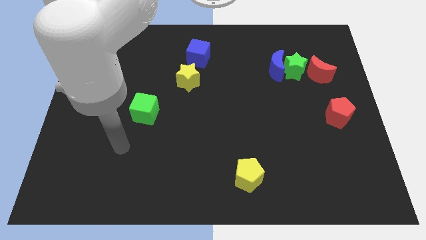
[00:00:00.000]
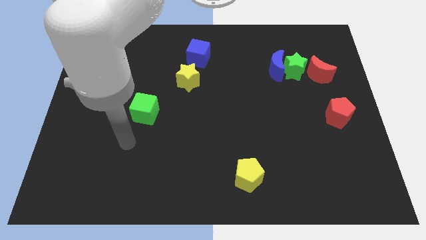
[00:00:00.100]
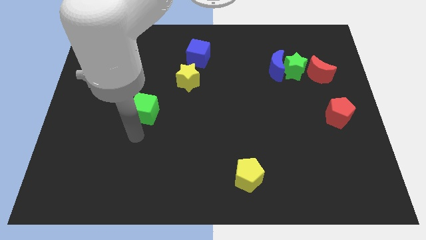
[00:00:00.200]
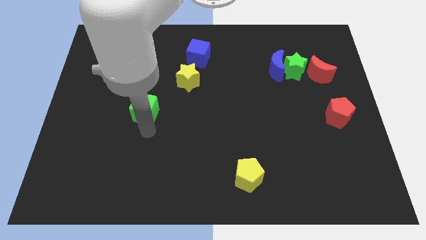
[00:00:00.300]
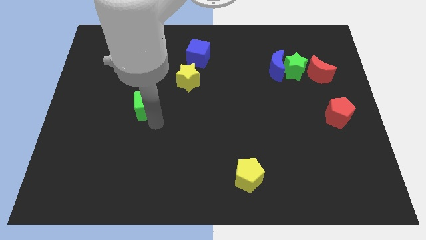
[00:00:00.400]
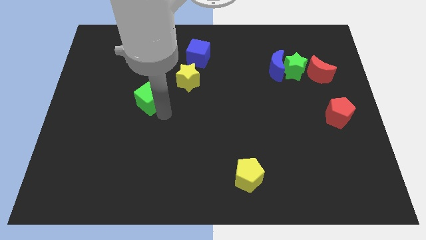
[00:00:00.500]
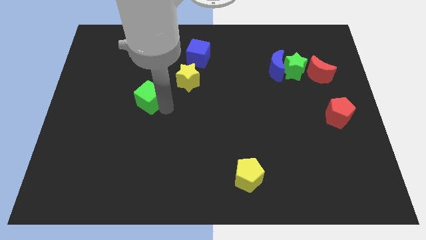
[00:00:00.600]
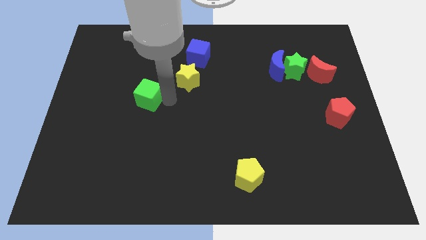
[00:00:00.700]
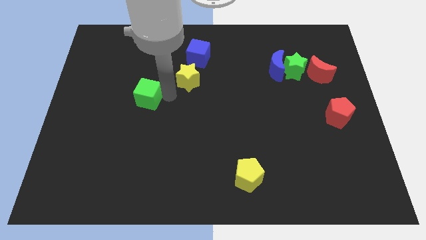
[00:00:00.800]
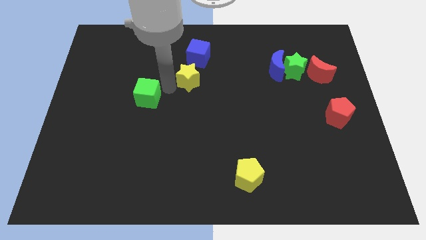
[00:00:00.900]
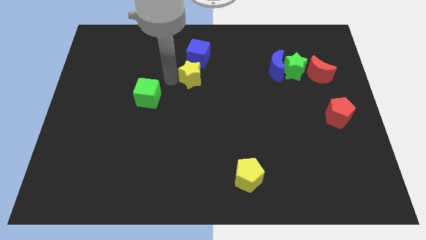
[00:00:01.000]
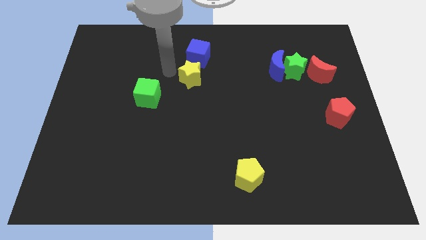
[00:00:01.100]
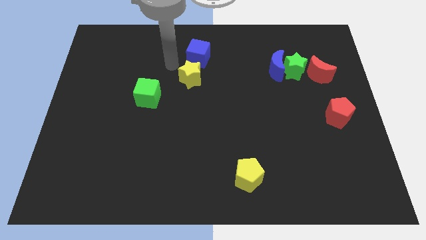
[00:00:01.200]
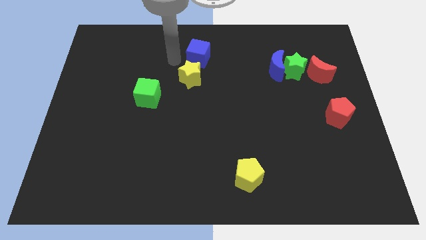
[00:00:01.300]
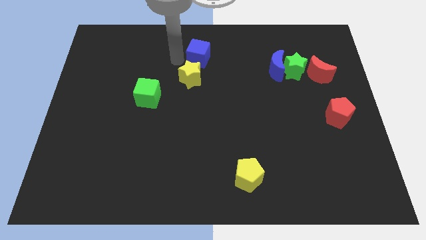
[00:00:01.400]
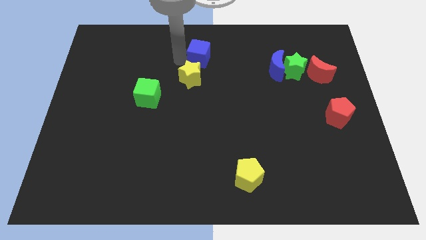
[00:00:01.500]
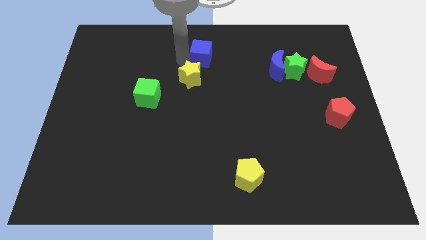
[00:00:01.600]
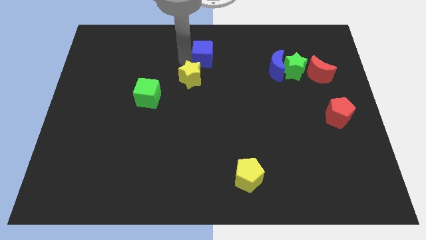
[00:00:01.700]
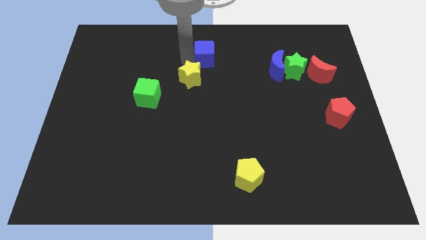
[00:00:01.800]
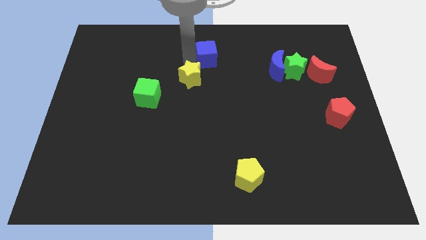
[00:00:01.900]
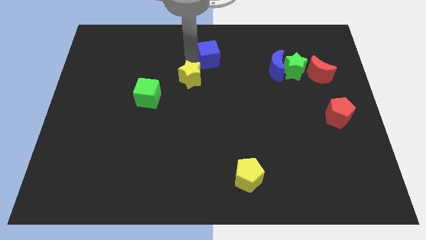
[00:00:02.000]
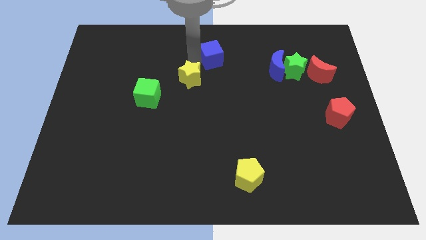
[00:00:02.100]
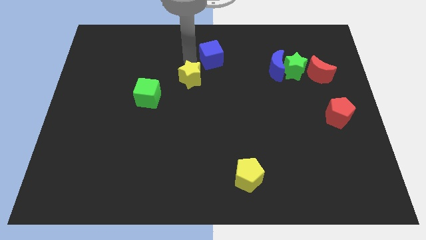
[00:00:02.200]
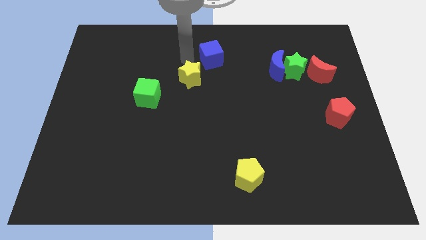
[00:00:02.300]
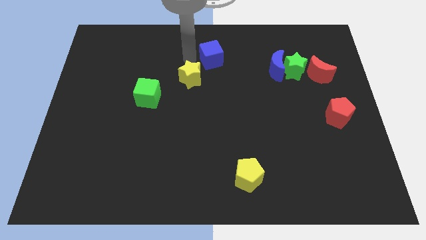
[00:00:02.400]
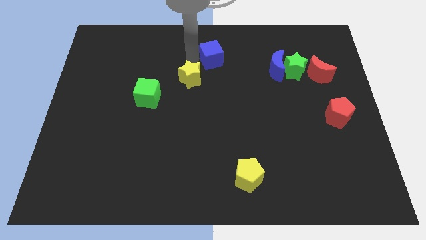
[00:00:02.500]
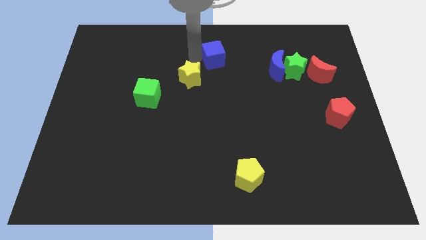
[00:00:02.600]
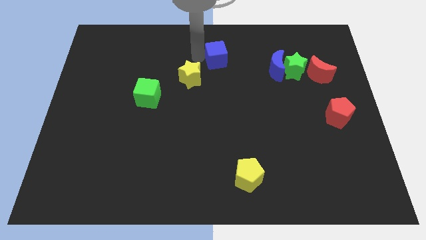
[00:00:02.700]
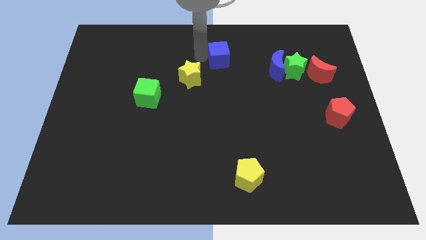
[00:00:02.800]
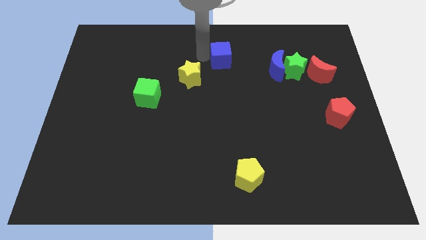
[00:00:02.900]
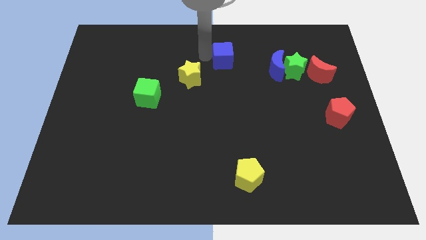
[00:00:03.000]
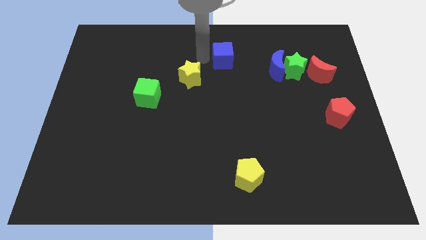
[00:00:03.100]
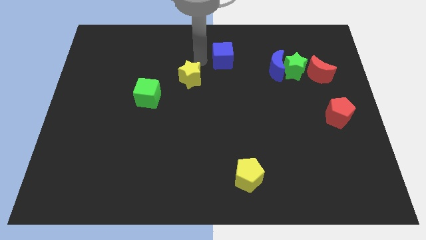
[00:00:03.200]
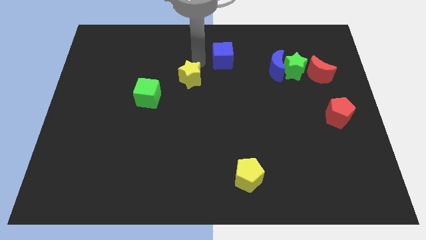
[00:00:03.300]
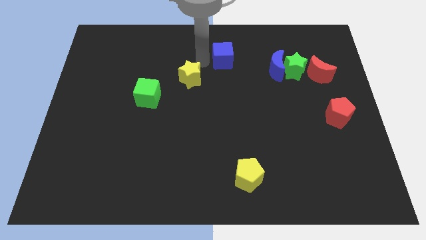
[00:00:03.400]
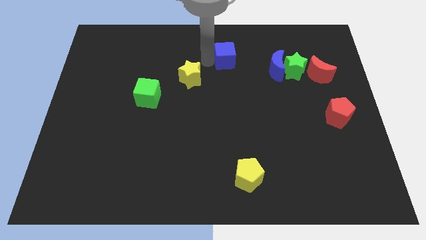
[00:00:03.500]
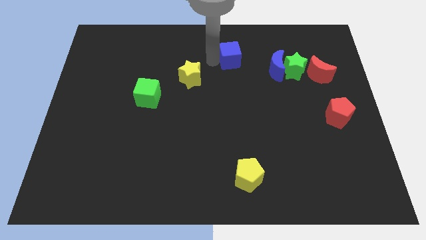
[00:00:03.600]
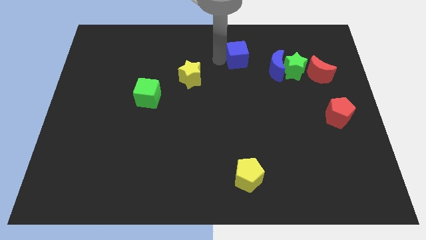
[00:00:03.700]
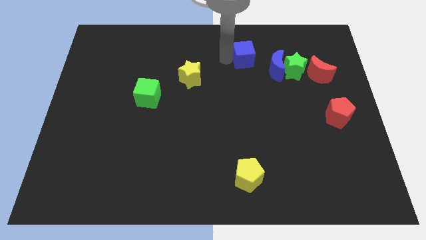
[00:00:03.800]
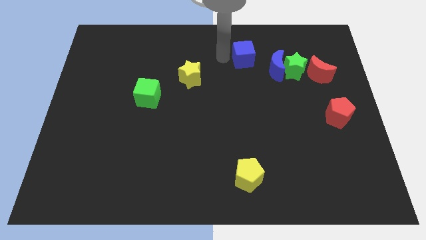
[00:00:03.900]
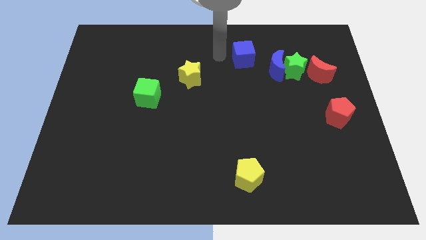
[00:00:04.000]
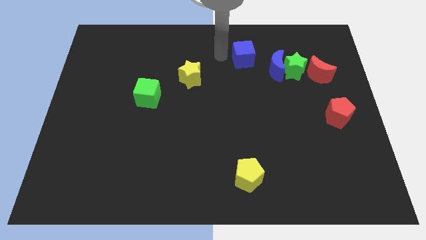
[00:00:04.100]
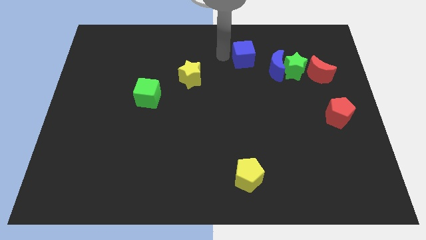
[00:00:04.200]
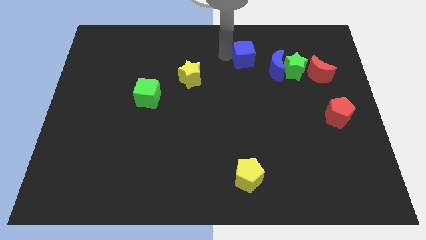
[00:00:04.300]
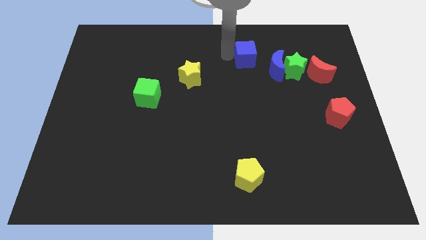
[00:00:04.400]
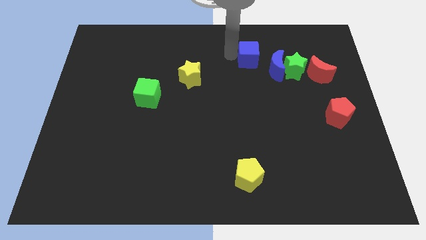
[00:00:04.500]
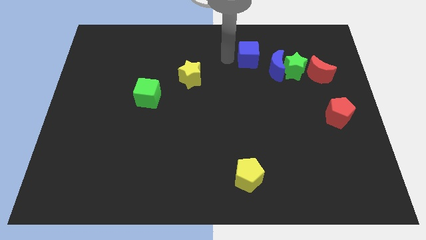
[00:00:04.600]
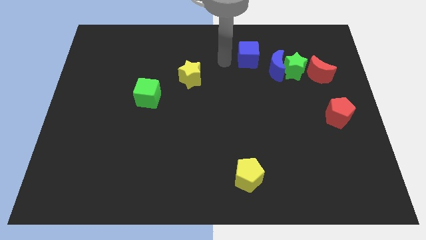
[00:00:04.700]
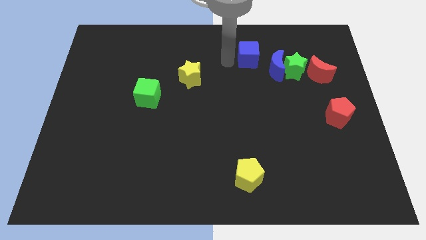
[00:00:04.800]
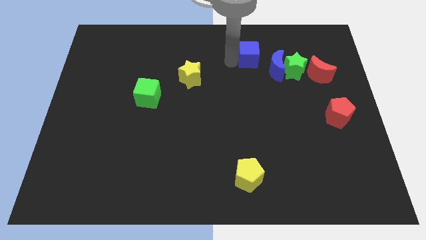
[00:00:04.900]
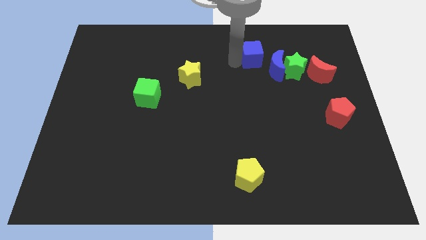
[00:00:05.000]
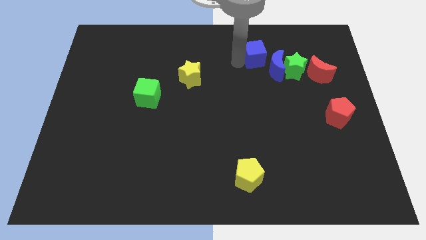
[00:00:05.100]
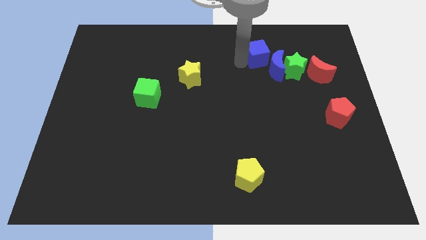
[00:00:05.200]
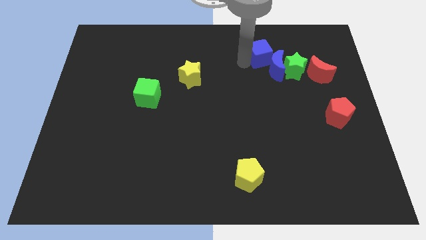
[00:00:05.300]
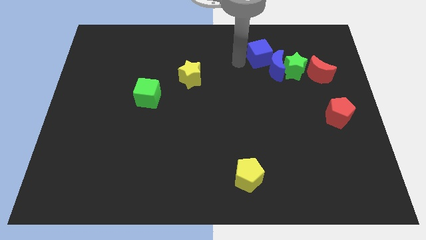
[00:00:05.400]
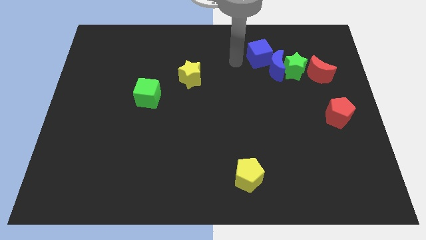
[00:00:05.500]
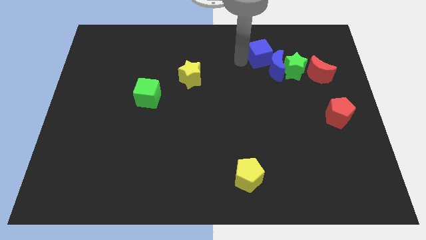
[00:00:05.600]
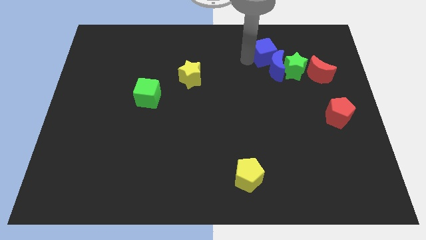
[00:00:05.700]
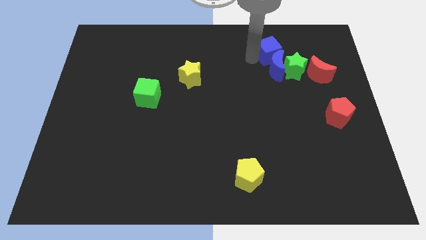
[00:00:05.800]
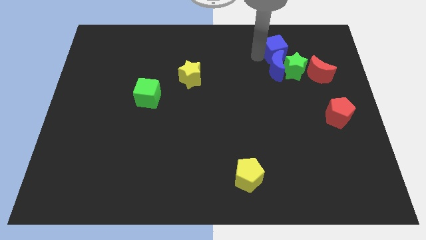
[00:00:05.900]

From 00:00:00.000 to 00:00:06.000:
push the blue cube right

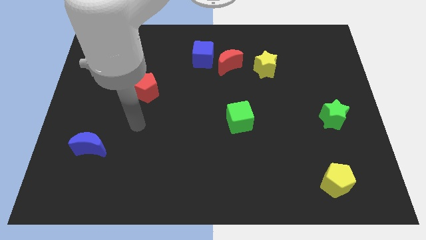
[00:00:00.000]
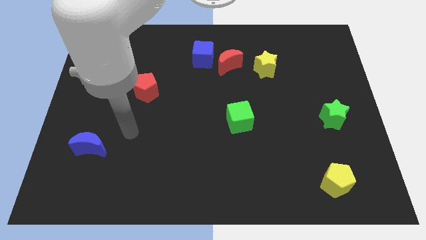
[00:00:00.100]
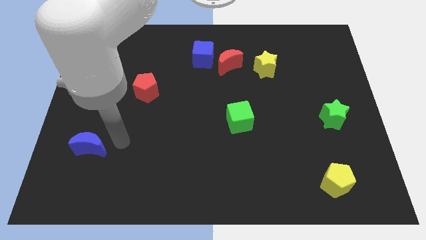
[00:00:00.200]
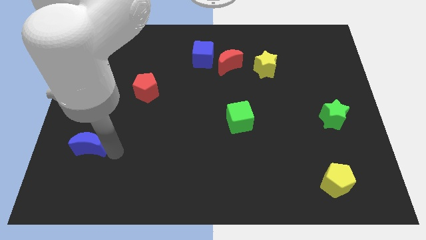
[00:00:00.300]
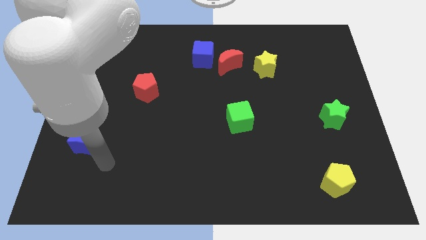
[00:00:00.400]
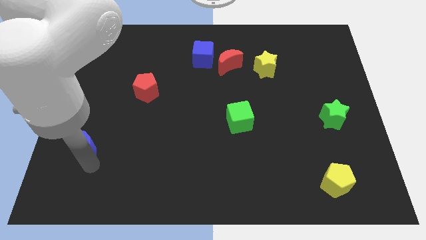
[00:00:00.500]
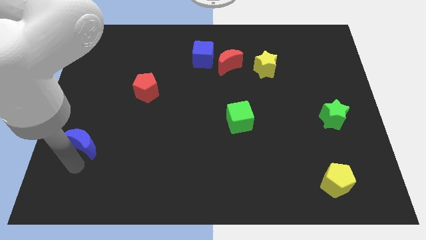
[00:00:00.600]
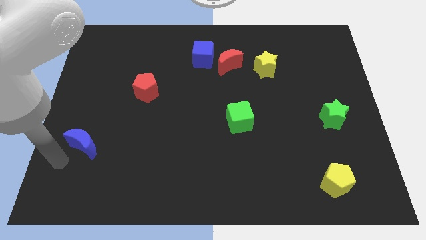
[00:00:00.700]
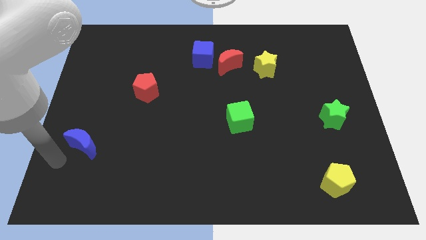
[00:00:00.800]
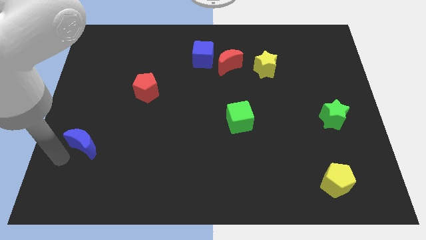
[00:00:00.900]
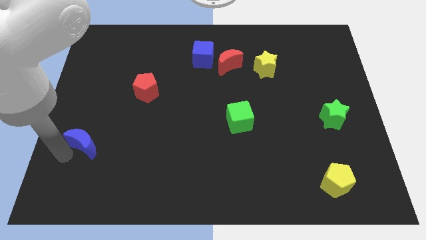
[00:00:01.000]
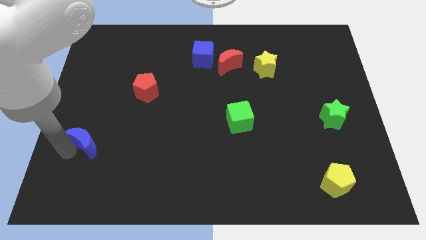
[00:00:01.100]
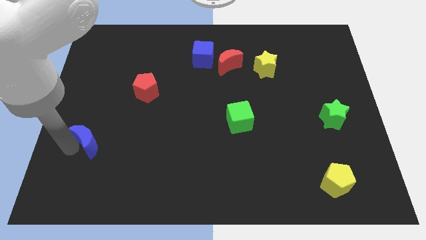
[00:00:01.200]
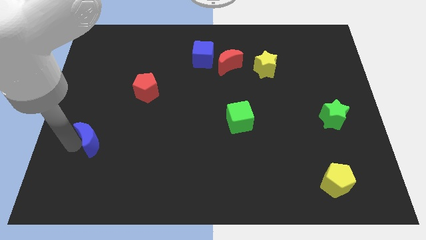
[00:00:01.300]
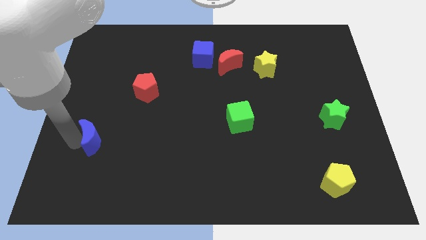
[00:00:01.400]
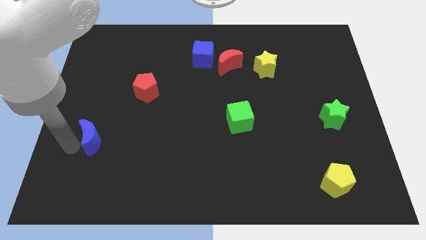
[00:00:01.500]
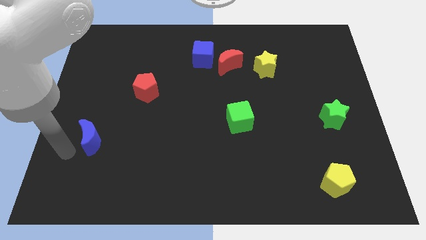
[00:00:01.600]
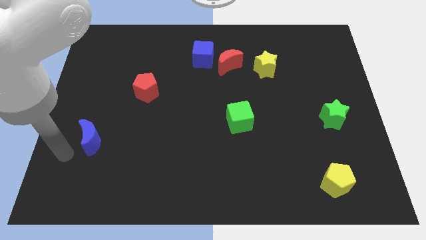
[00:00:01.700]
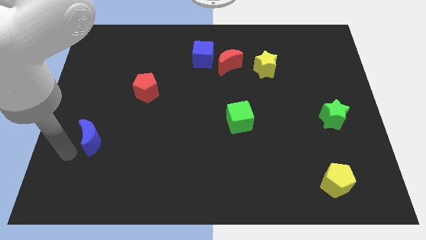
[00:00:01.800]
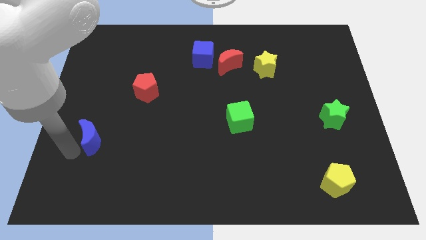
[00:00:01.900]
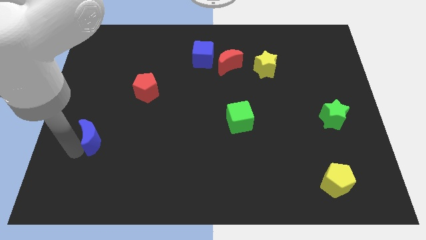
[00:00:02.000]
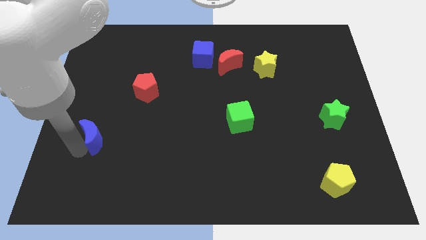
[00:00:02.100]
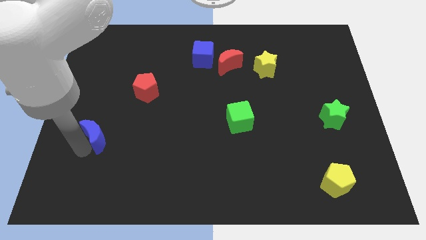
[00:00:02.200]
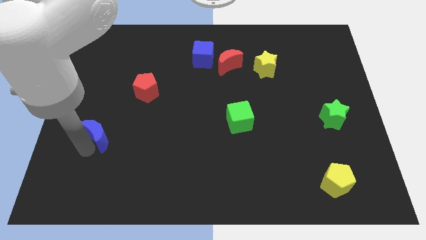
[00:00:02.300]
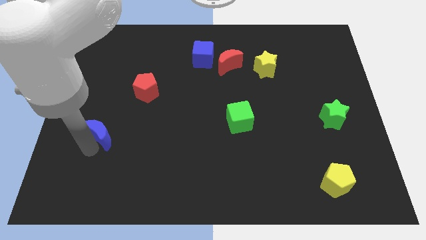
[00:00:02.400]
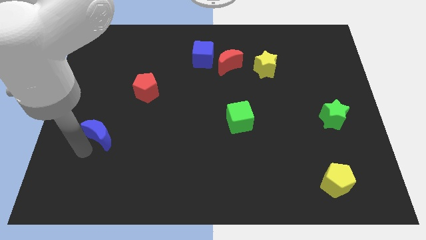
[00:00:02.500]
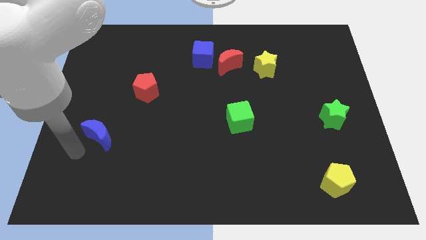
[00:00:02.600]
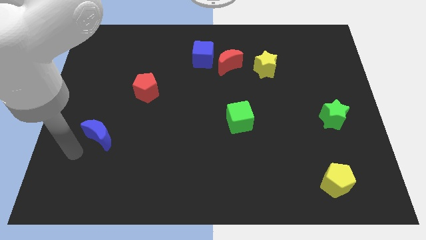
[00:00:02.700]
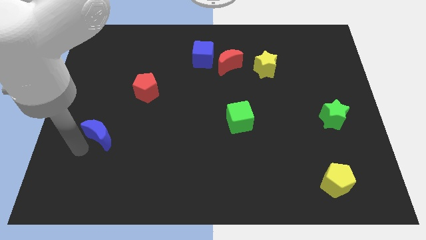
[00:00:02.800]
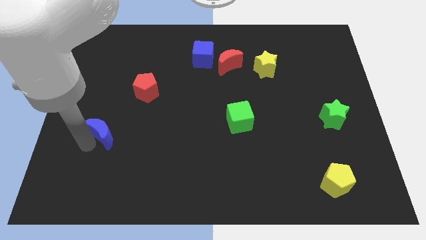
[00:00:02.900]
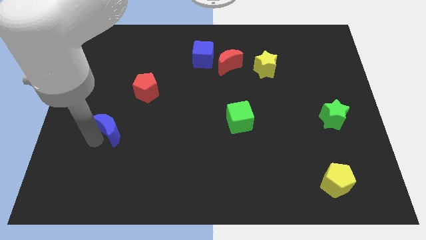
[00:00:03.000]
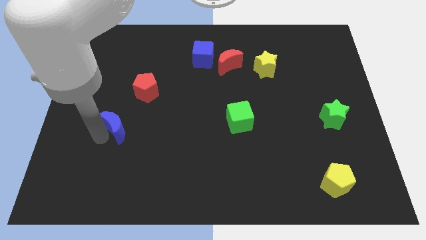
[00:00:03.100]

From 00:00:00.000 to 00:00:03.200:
move the blue moon up and right diagonally a bit
